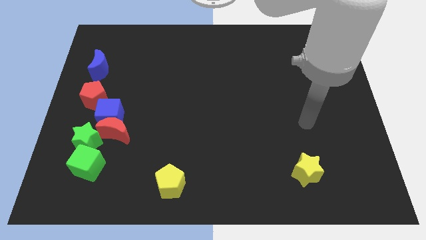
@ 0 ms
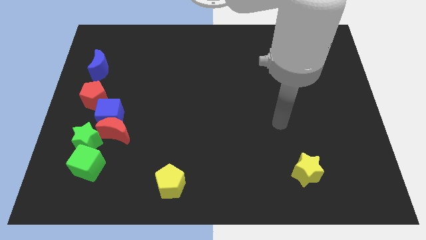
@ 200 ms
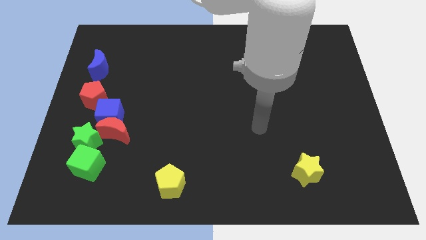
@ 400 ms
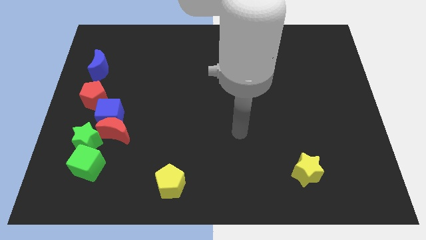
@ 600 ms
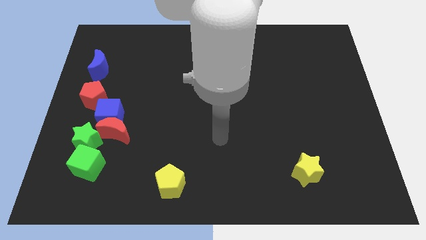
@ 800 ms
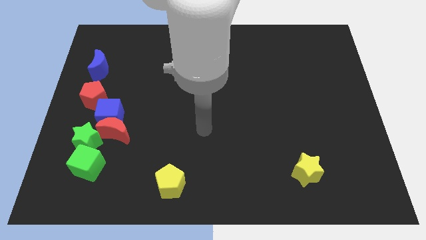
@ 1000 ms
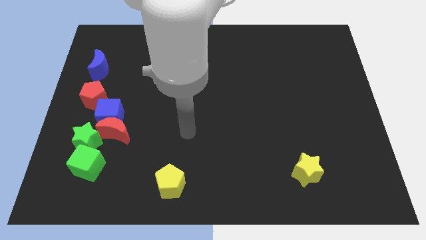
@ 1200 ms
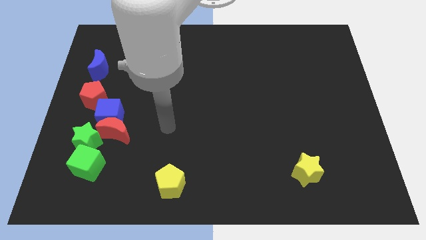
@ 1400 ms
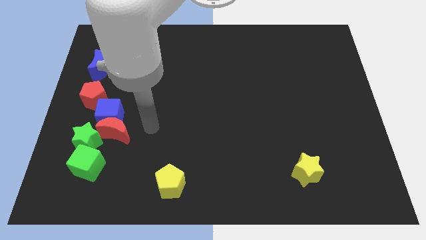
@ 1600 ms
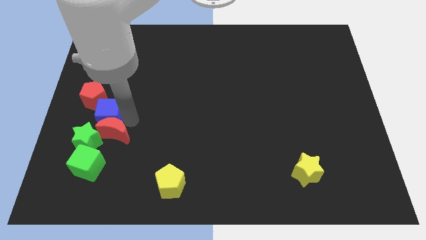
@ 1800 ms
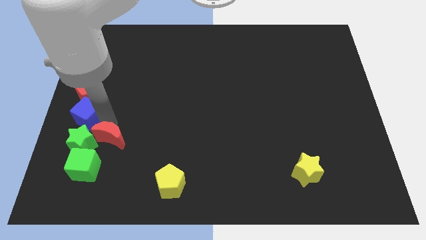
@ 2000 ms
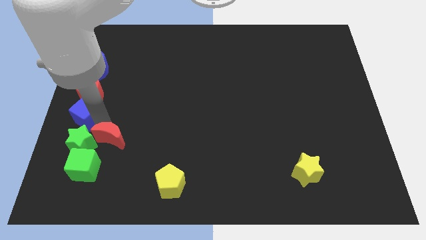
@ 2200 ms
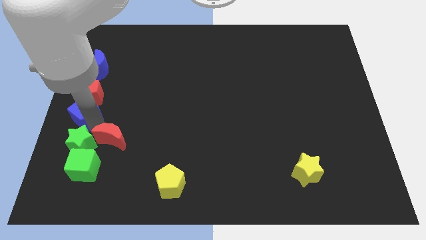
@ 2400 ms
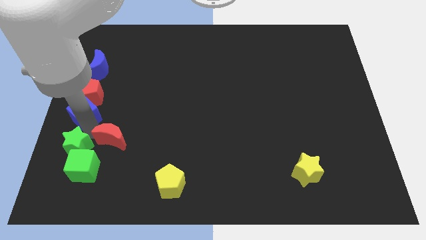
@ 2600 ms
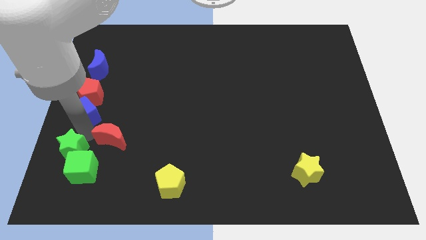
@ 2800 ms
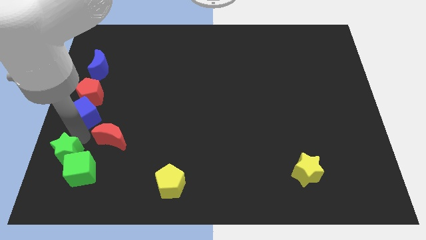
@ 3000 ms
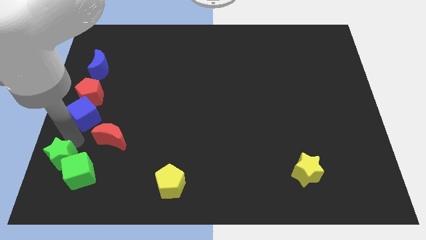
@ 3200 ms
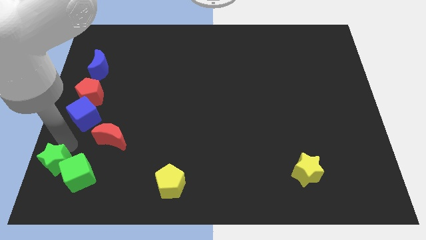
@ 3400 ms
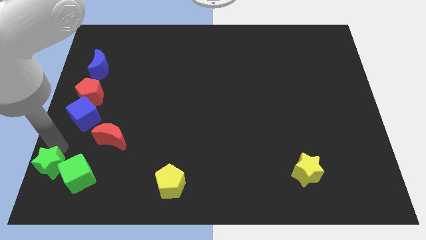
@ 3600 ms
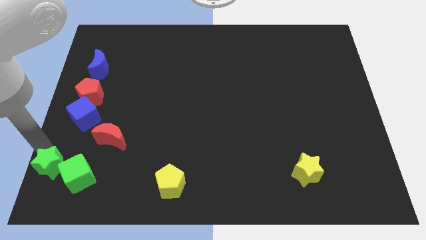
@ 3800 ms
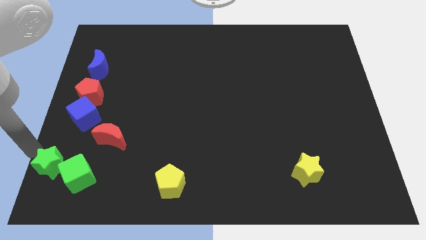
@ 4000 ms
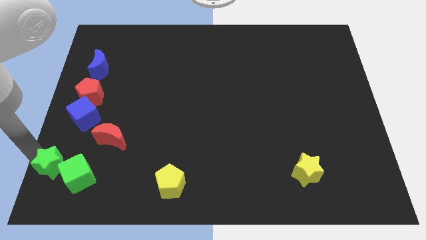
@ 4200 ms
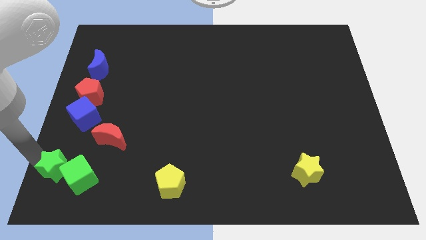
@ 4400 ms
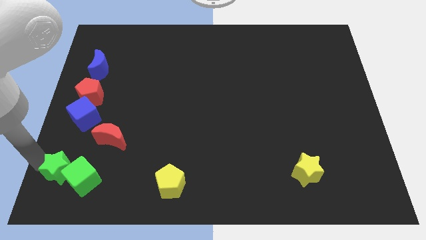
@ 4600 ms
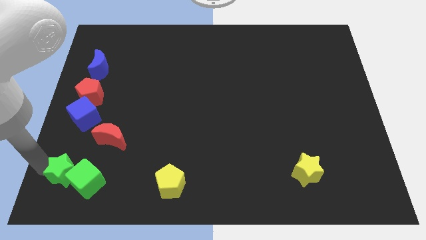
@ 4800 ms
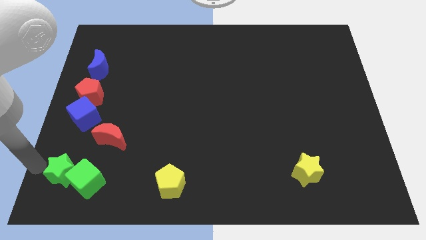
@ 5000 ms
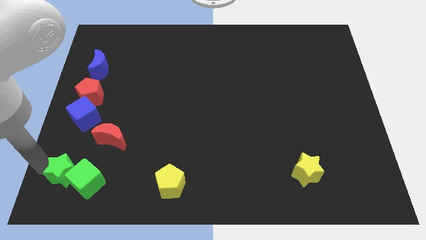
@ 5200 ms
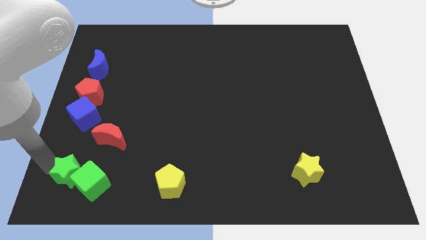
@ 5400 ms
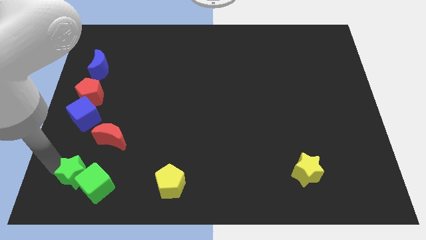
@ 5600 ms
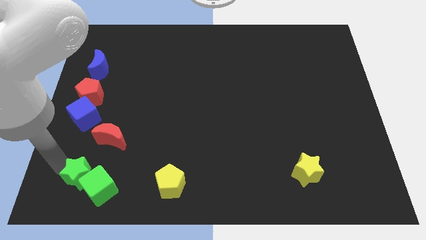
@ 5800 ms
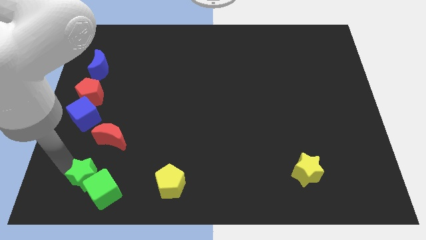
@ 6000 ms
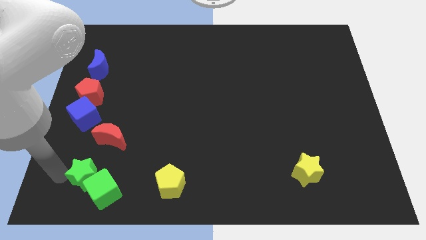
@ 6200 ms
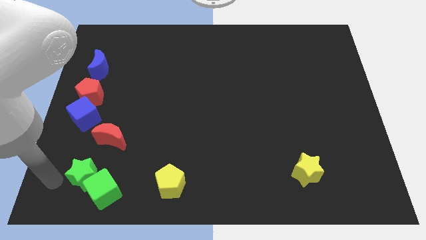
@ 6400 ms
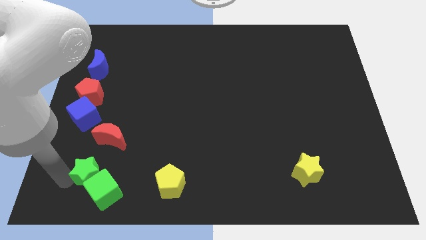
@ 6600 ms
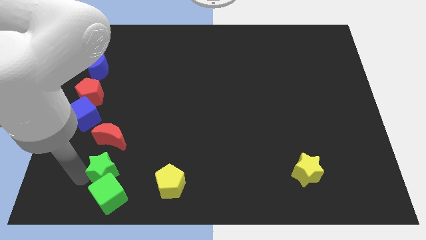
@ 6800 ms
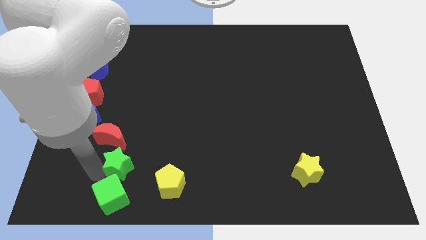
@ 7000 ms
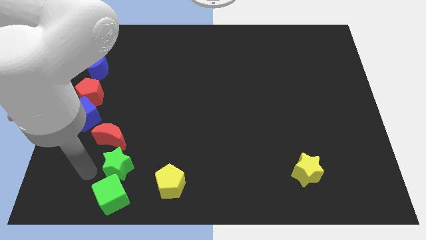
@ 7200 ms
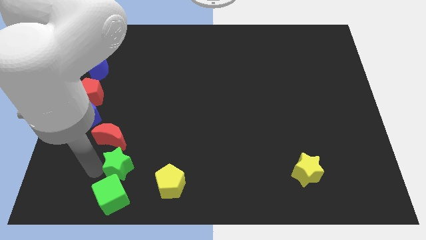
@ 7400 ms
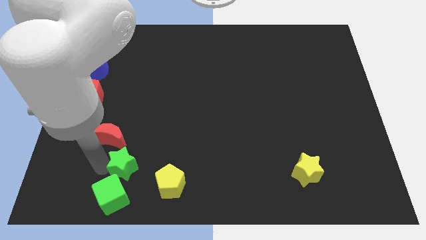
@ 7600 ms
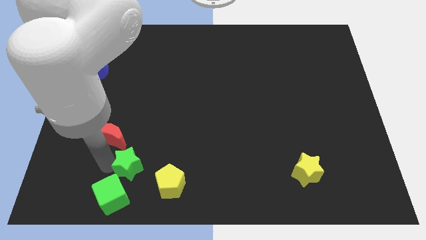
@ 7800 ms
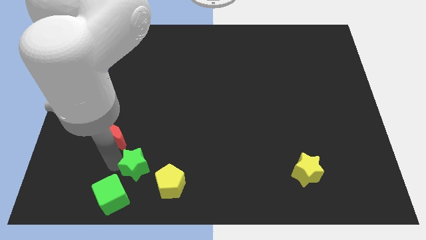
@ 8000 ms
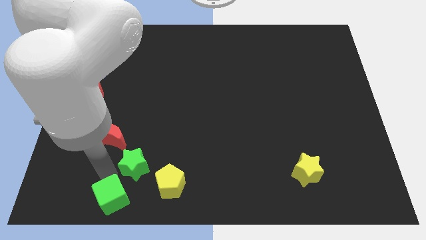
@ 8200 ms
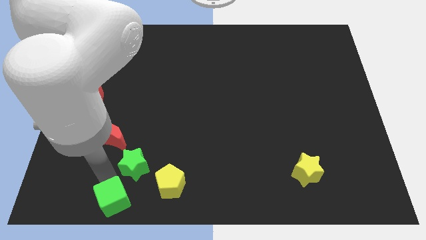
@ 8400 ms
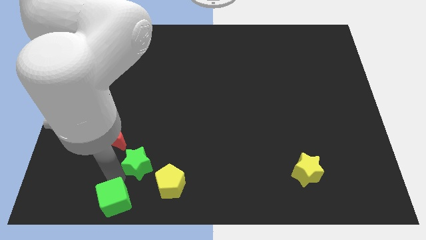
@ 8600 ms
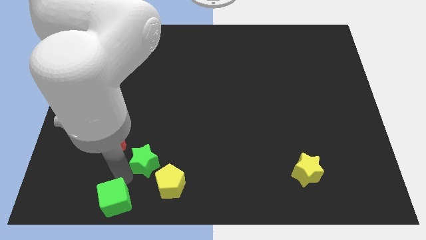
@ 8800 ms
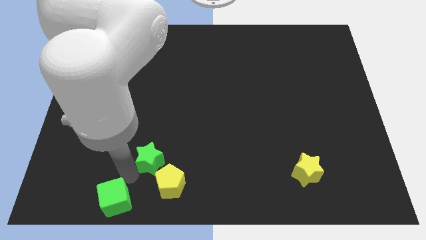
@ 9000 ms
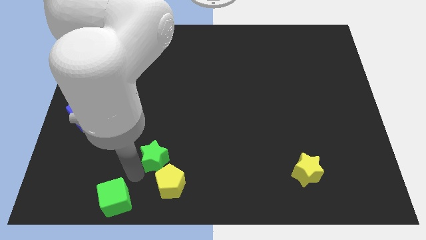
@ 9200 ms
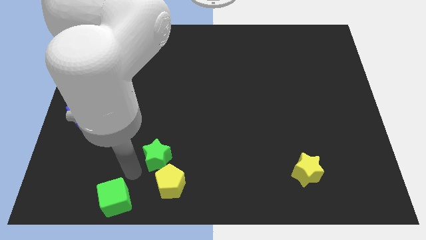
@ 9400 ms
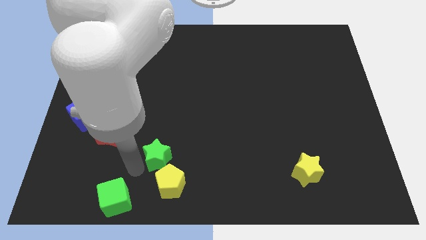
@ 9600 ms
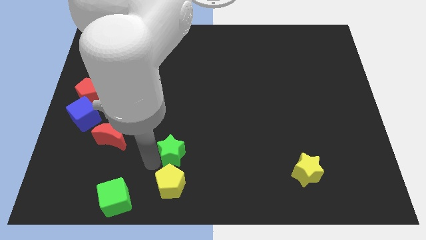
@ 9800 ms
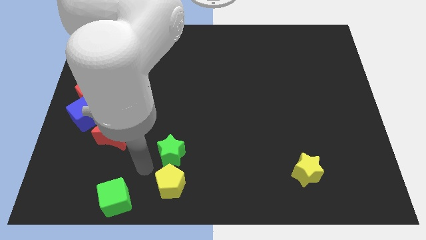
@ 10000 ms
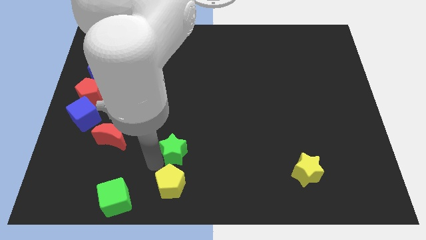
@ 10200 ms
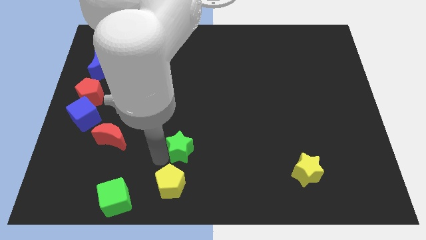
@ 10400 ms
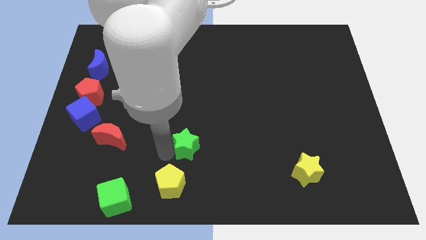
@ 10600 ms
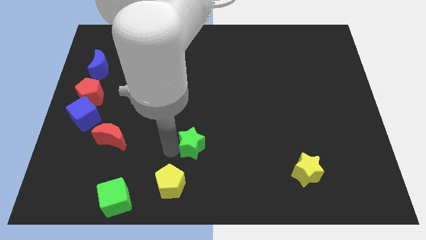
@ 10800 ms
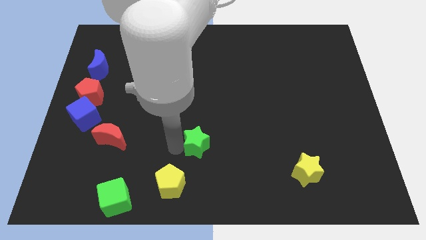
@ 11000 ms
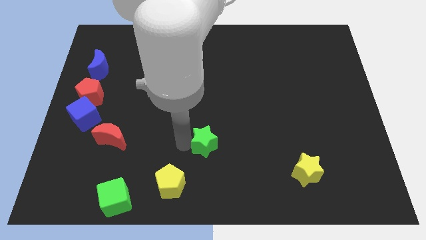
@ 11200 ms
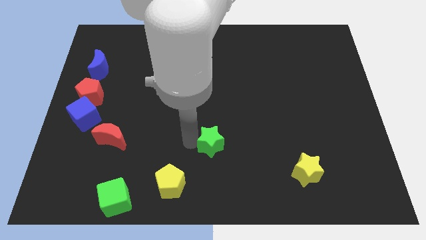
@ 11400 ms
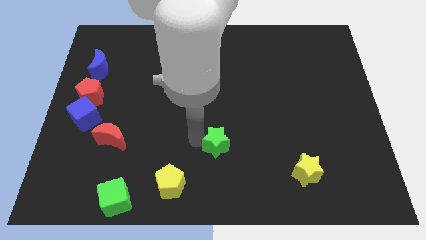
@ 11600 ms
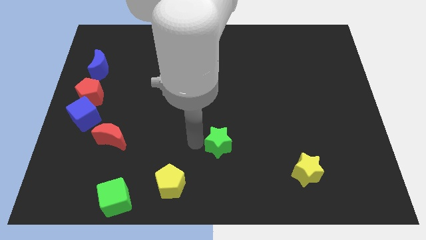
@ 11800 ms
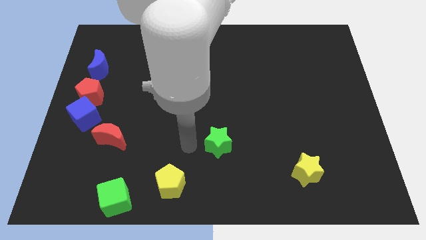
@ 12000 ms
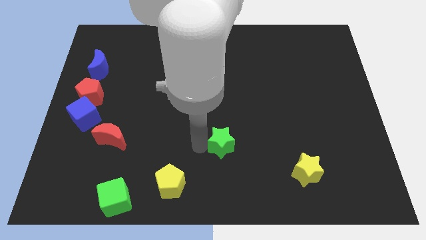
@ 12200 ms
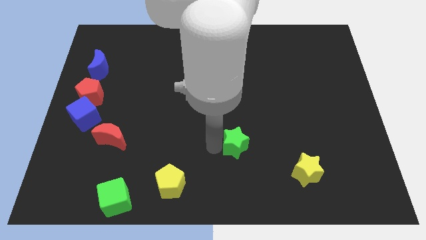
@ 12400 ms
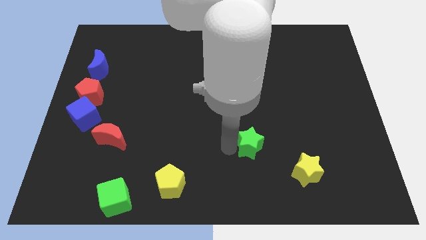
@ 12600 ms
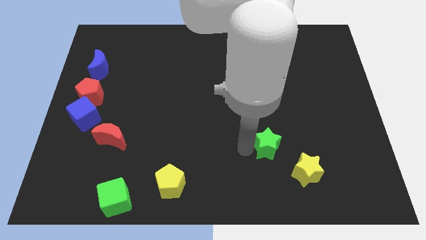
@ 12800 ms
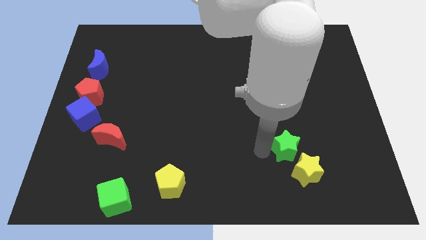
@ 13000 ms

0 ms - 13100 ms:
slide the green star above the yellow star

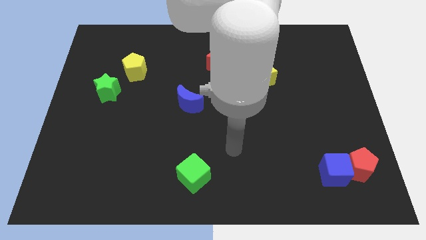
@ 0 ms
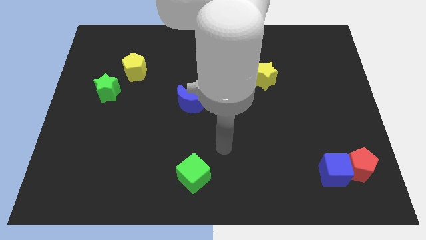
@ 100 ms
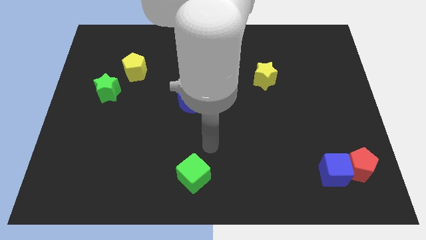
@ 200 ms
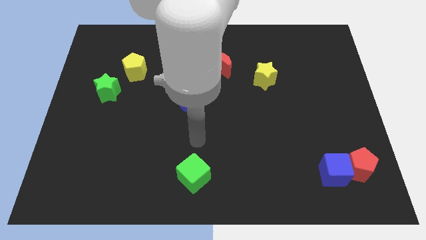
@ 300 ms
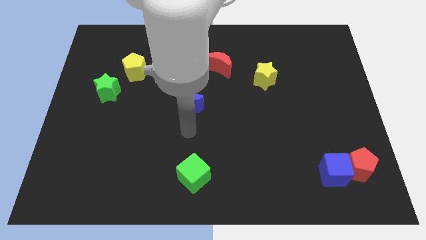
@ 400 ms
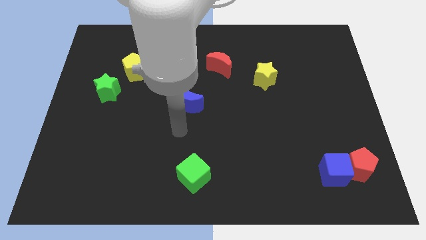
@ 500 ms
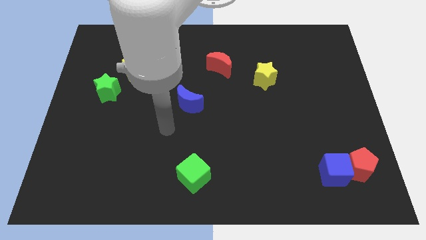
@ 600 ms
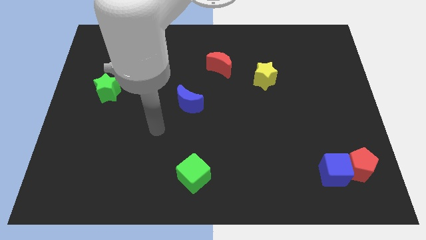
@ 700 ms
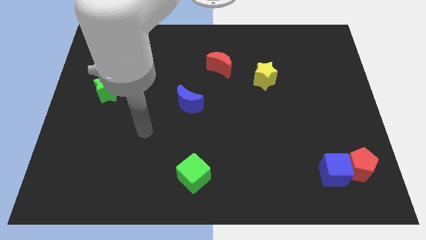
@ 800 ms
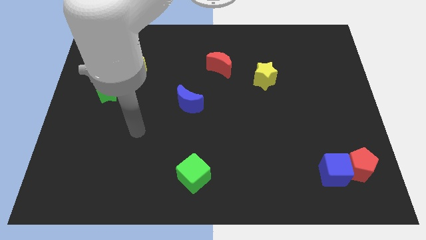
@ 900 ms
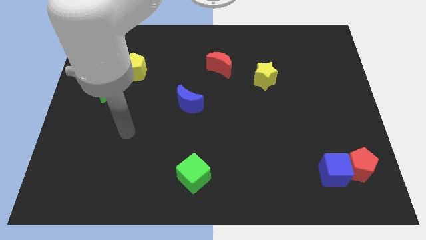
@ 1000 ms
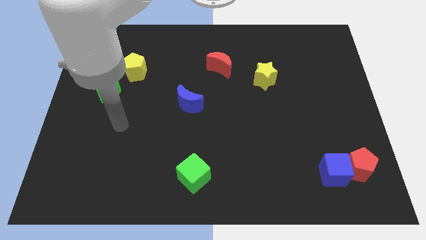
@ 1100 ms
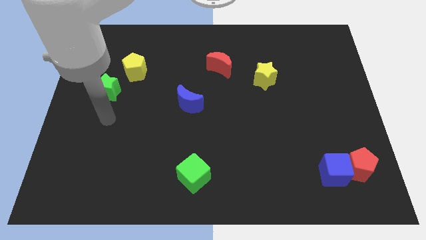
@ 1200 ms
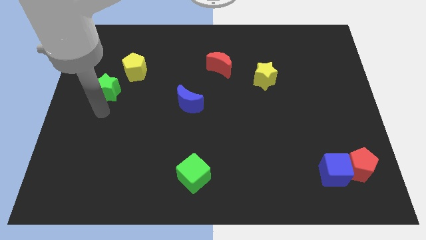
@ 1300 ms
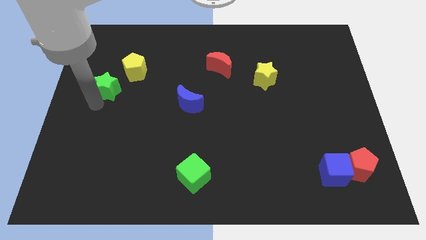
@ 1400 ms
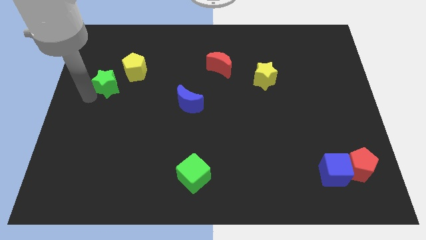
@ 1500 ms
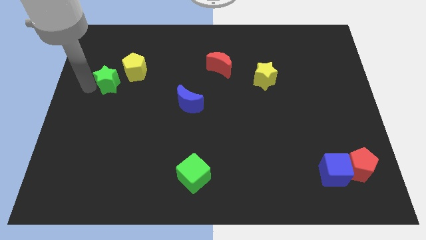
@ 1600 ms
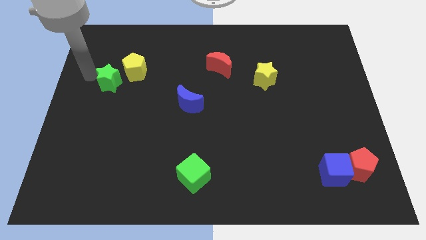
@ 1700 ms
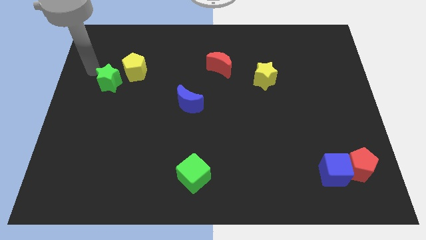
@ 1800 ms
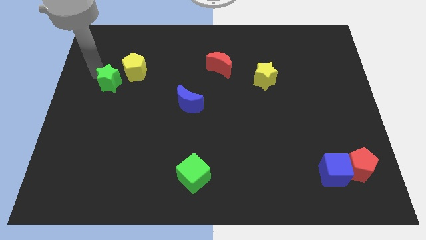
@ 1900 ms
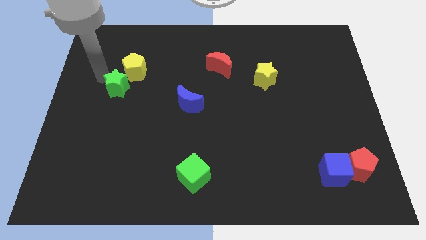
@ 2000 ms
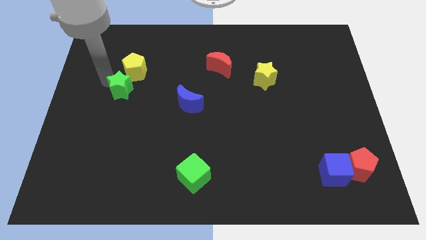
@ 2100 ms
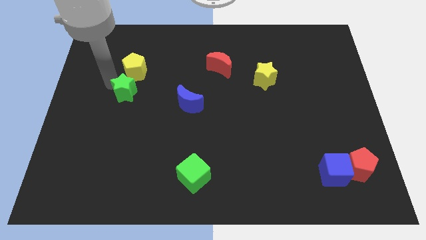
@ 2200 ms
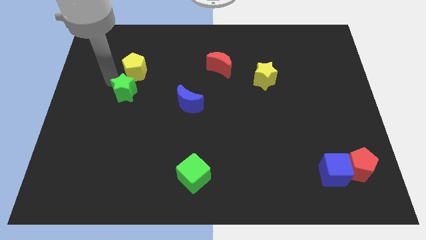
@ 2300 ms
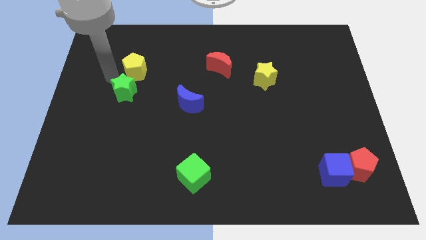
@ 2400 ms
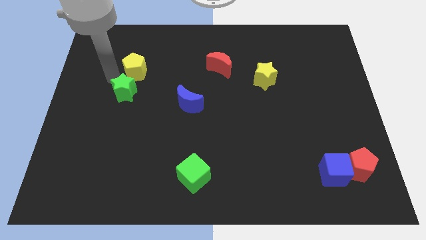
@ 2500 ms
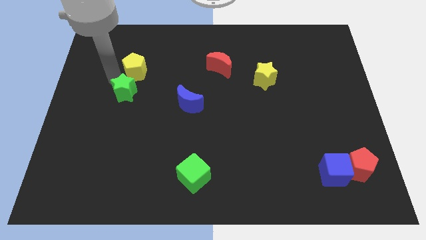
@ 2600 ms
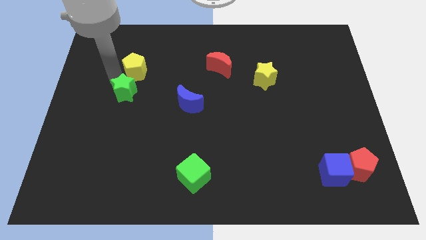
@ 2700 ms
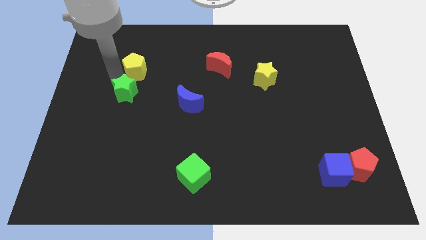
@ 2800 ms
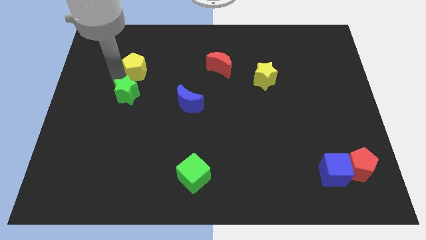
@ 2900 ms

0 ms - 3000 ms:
move the green star to the left side of the blue moon
